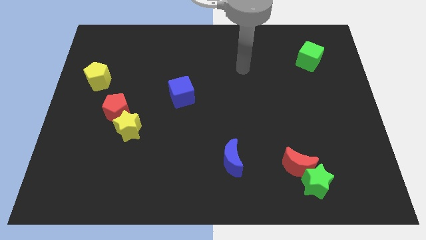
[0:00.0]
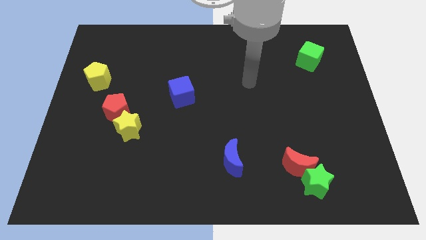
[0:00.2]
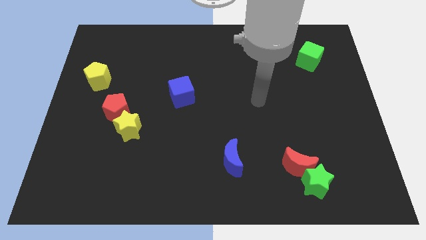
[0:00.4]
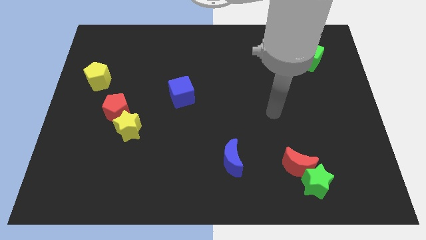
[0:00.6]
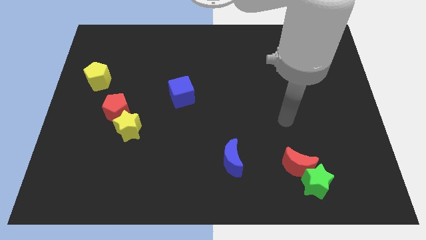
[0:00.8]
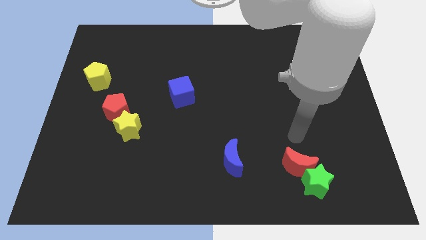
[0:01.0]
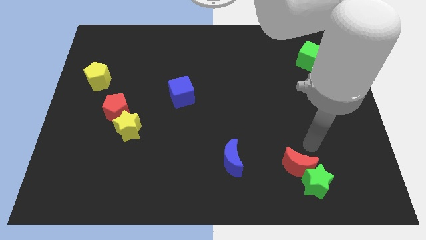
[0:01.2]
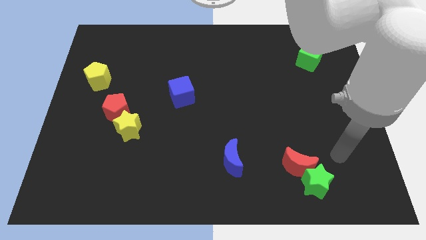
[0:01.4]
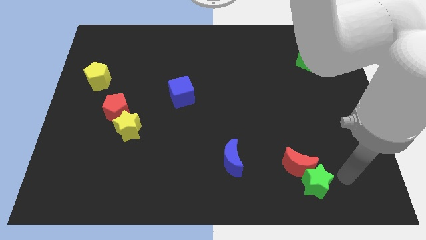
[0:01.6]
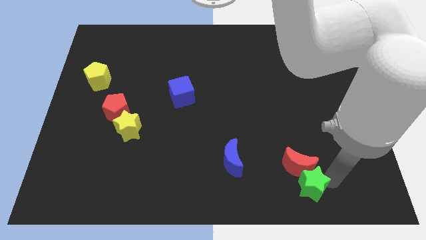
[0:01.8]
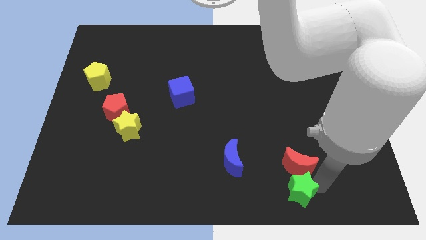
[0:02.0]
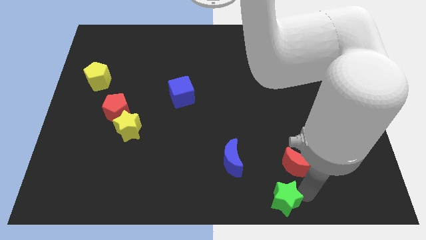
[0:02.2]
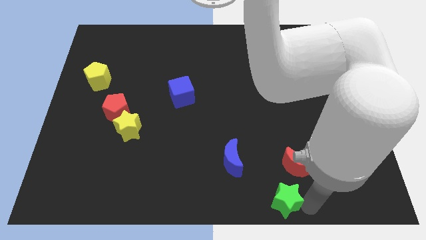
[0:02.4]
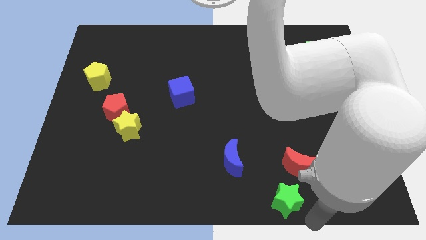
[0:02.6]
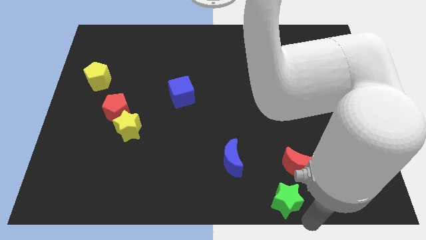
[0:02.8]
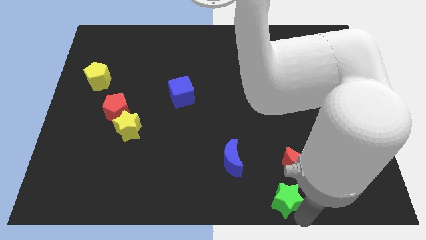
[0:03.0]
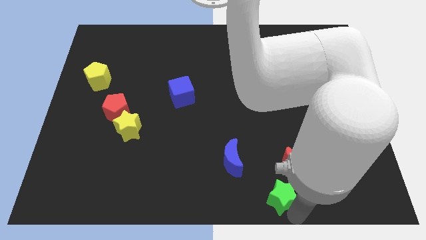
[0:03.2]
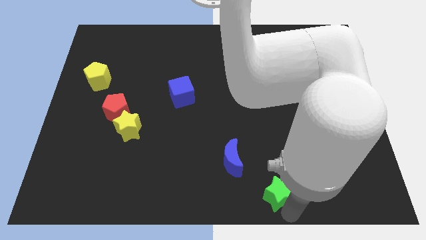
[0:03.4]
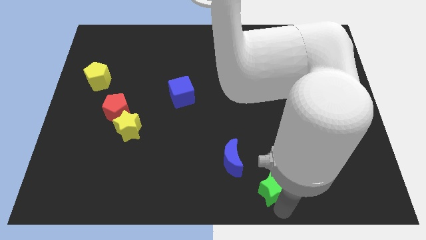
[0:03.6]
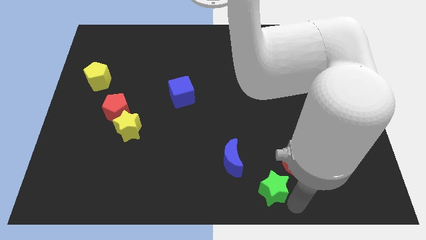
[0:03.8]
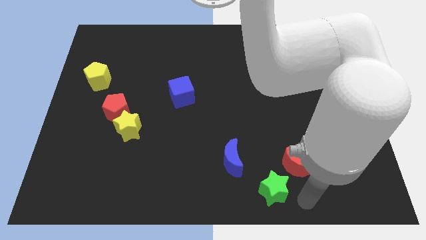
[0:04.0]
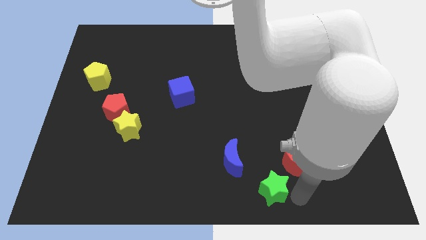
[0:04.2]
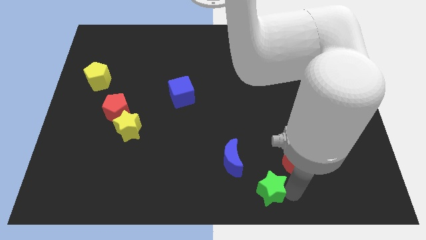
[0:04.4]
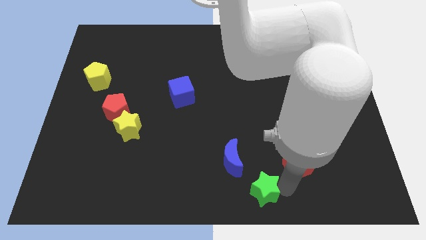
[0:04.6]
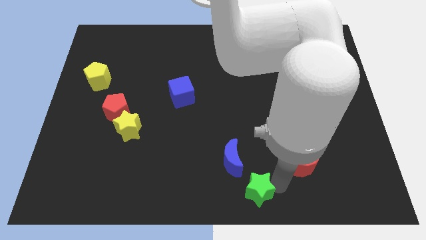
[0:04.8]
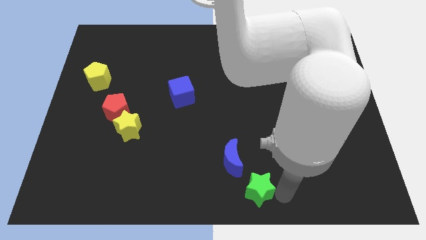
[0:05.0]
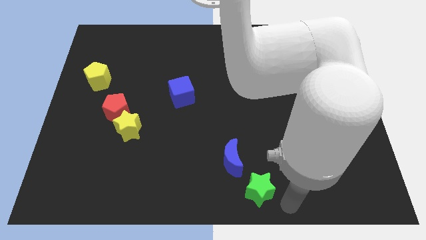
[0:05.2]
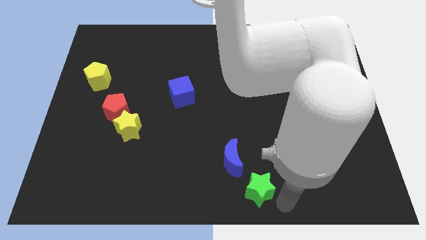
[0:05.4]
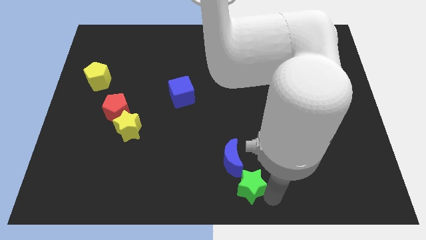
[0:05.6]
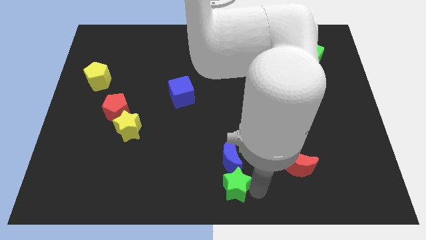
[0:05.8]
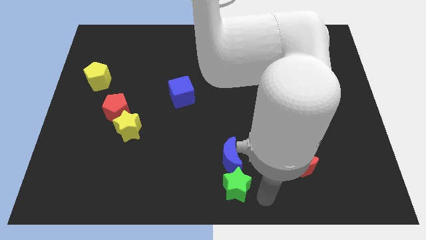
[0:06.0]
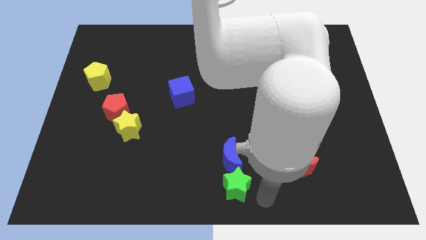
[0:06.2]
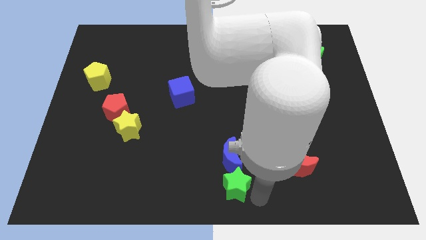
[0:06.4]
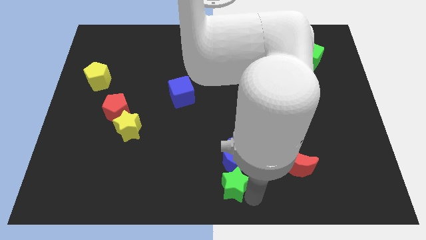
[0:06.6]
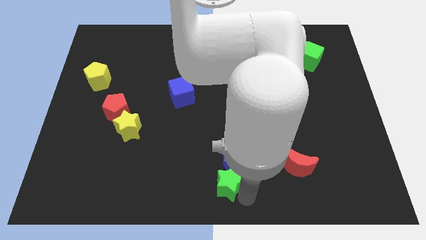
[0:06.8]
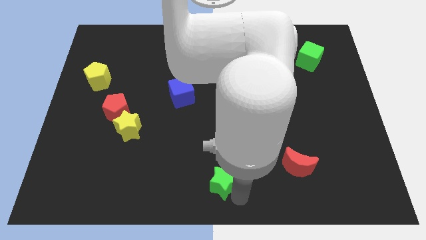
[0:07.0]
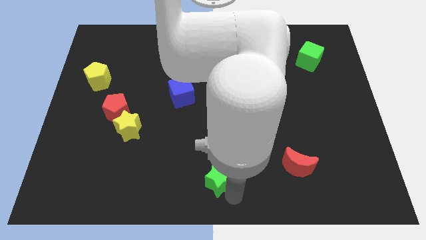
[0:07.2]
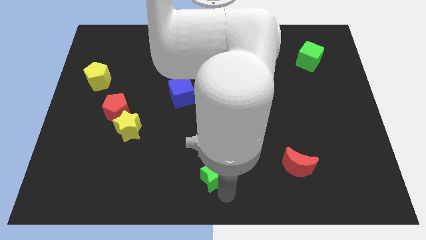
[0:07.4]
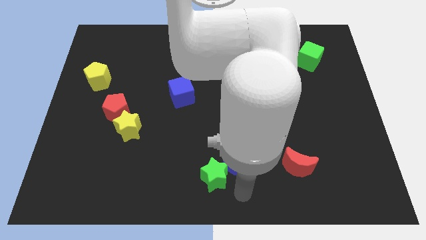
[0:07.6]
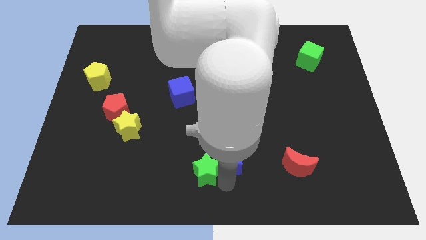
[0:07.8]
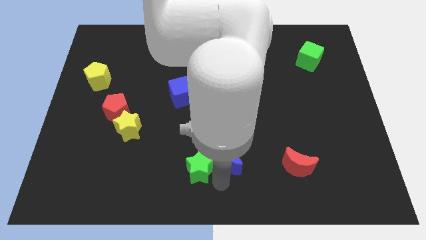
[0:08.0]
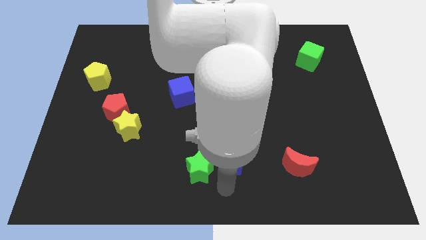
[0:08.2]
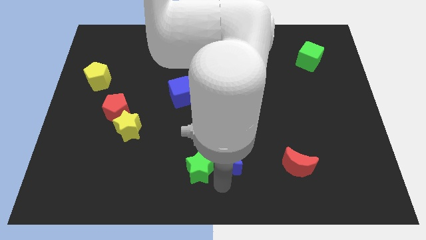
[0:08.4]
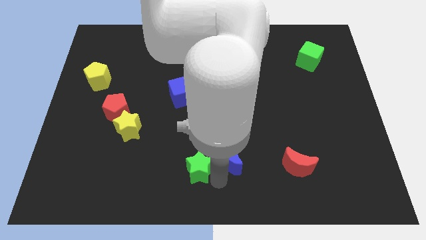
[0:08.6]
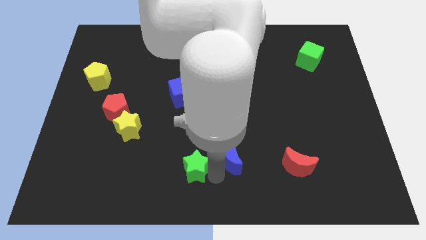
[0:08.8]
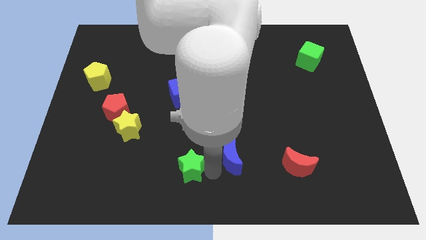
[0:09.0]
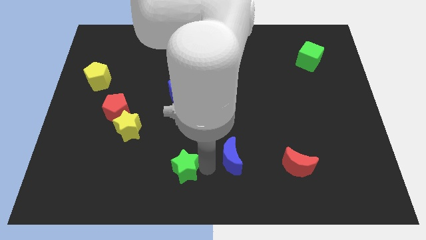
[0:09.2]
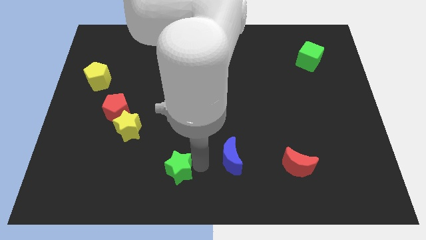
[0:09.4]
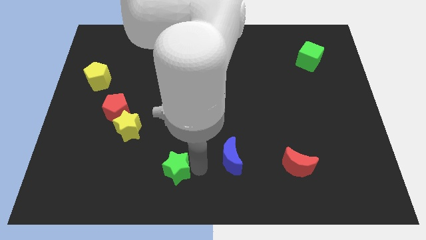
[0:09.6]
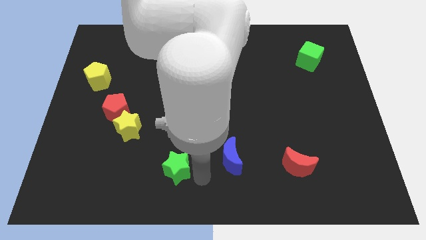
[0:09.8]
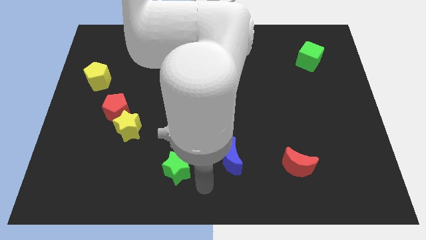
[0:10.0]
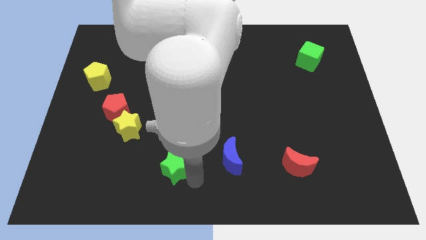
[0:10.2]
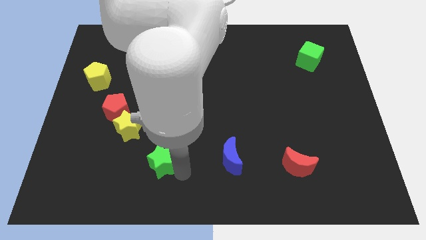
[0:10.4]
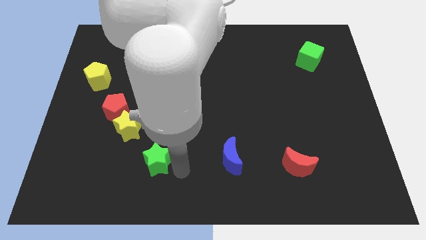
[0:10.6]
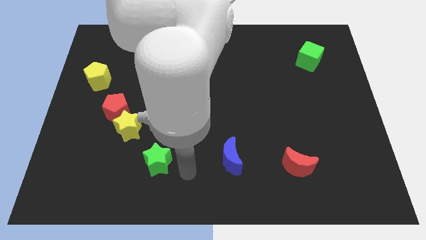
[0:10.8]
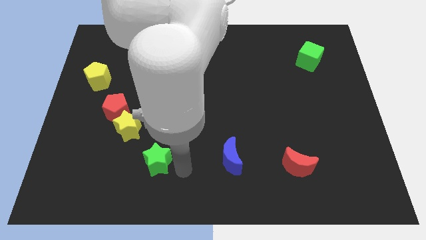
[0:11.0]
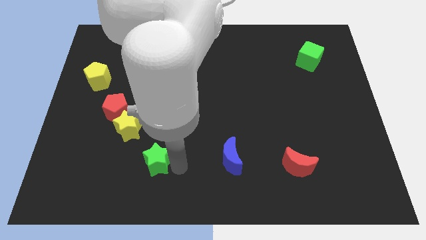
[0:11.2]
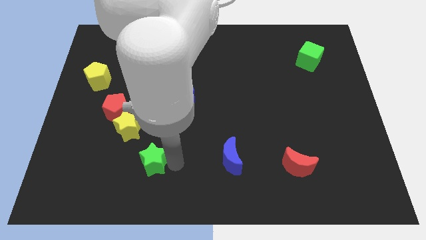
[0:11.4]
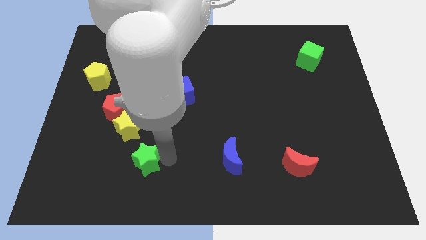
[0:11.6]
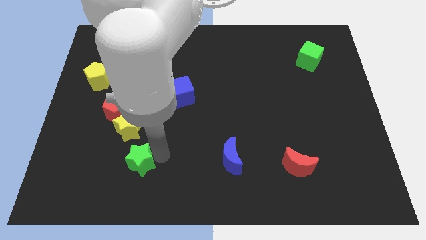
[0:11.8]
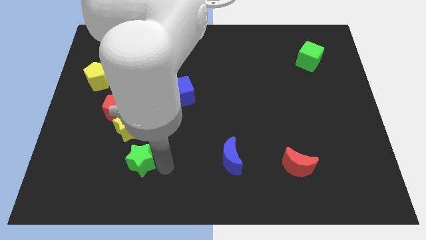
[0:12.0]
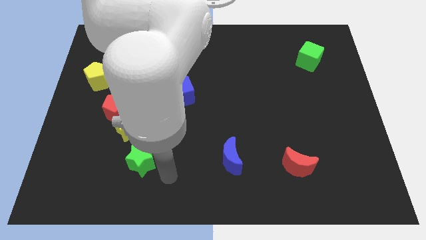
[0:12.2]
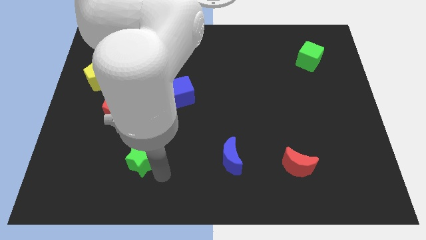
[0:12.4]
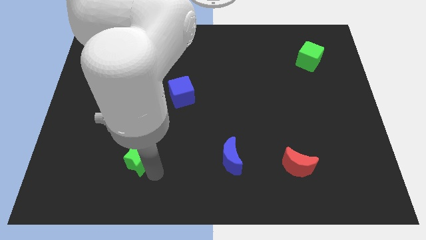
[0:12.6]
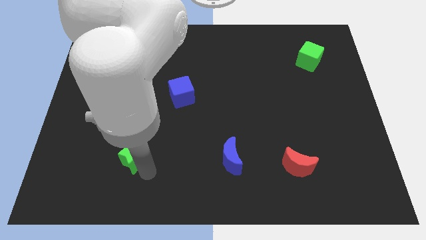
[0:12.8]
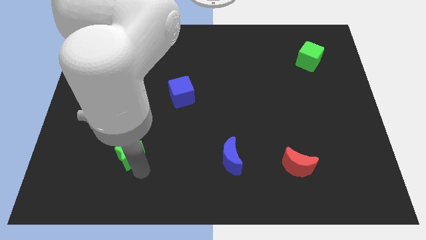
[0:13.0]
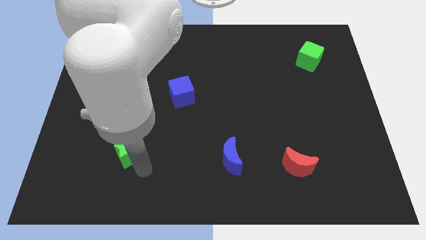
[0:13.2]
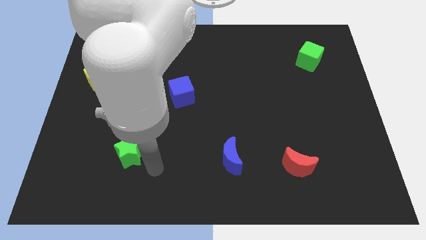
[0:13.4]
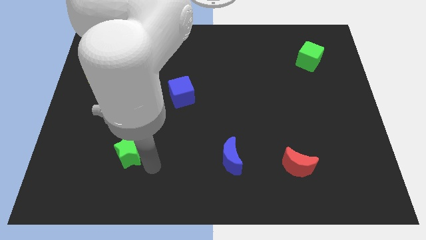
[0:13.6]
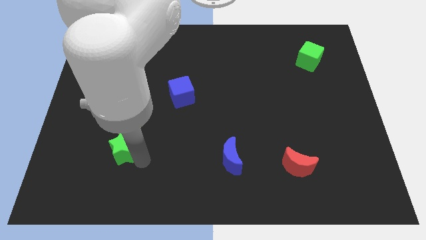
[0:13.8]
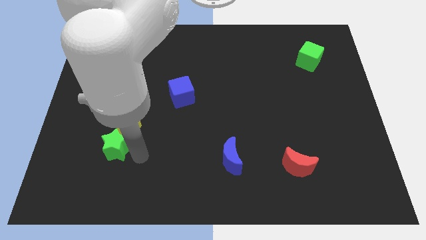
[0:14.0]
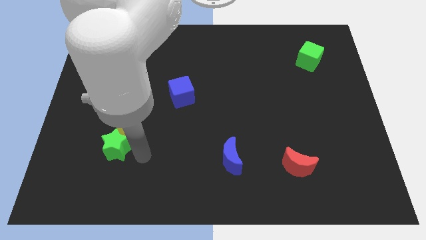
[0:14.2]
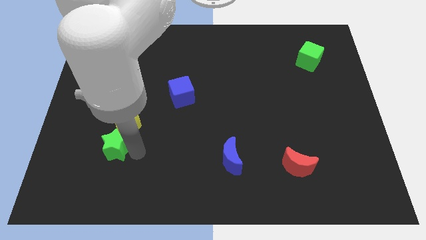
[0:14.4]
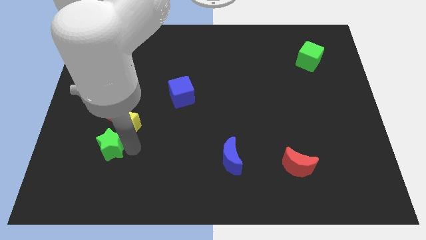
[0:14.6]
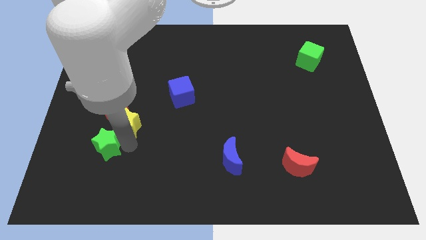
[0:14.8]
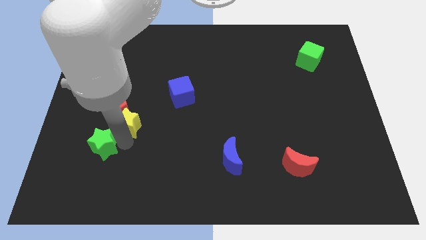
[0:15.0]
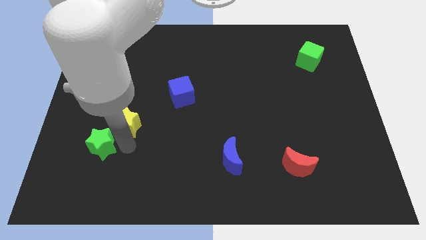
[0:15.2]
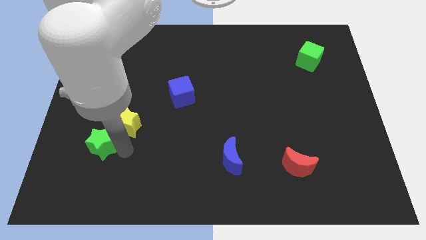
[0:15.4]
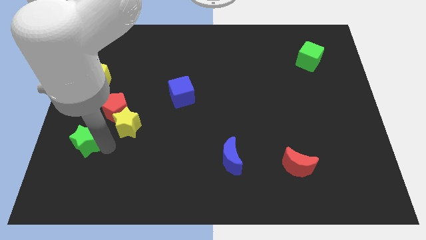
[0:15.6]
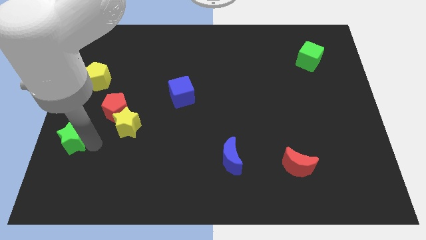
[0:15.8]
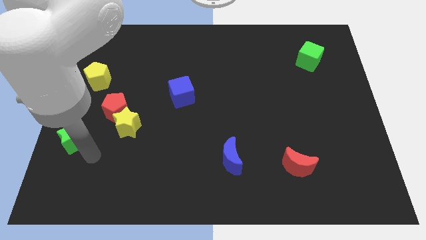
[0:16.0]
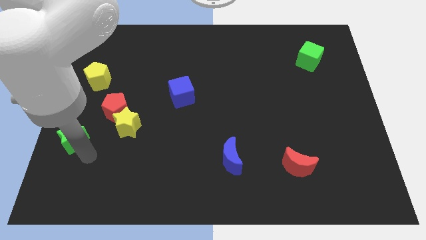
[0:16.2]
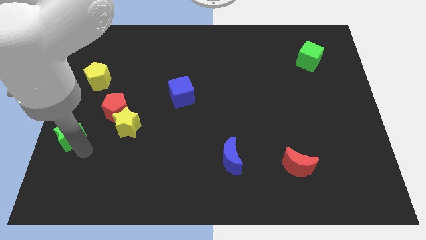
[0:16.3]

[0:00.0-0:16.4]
push the green star to the center left
